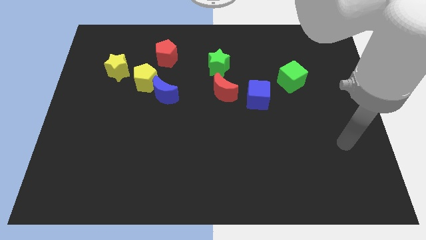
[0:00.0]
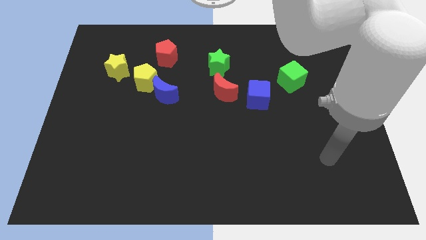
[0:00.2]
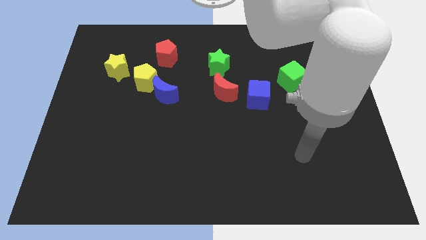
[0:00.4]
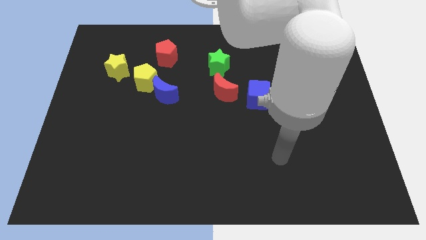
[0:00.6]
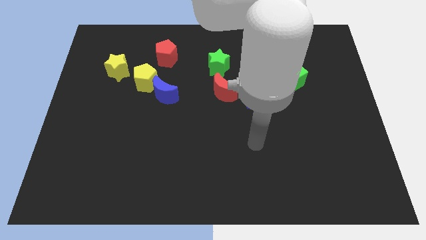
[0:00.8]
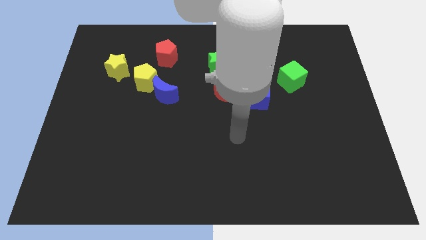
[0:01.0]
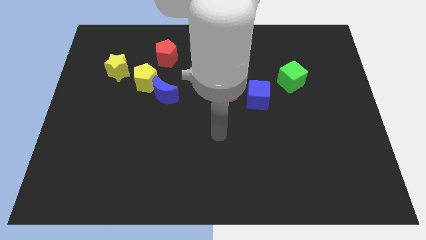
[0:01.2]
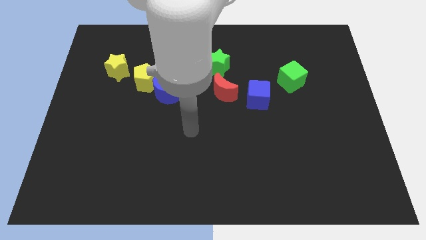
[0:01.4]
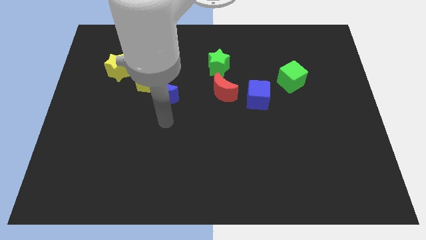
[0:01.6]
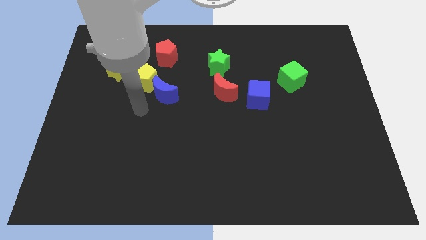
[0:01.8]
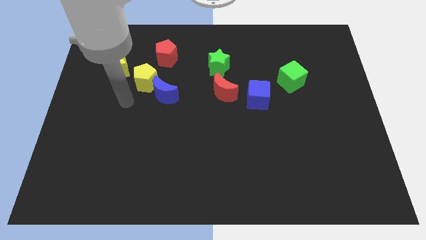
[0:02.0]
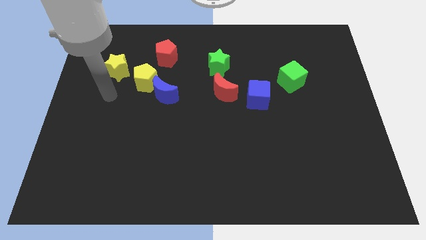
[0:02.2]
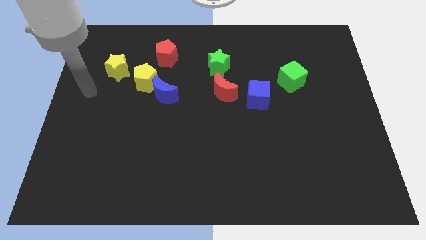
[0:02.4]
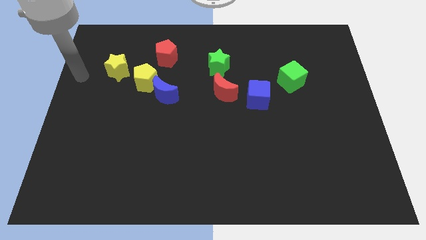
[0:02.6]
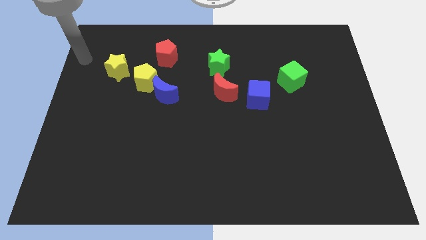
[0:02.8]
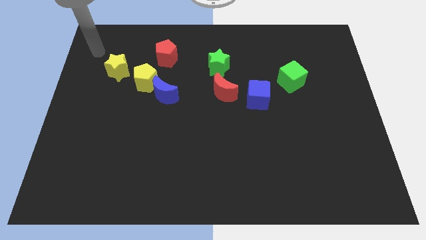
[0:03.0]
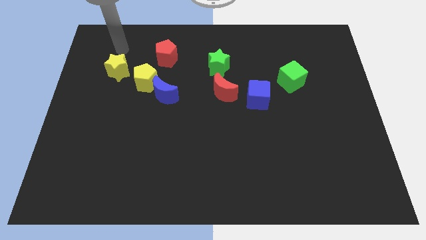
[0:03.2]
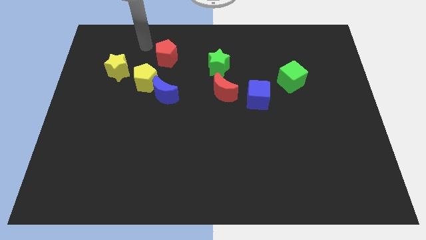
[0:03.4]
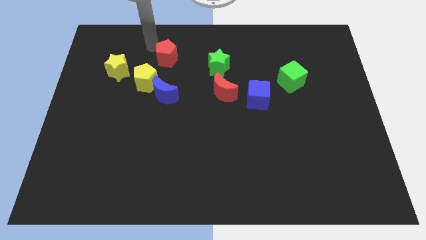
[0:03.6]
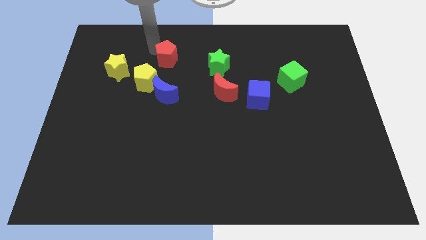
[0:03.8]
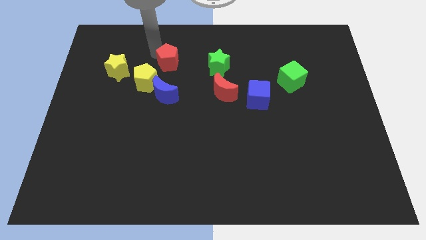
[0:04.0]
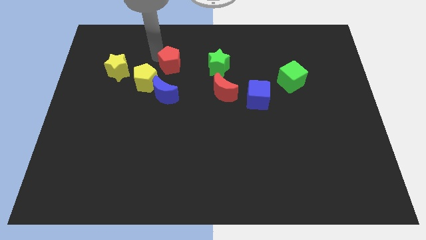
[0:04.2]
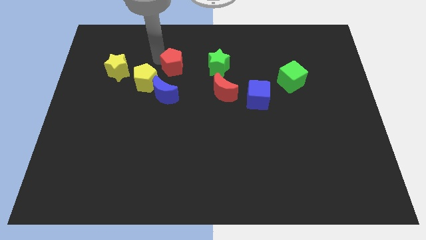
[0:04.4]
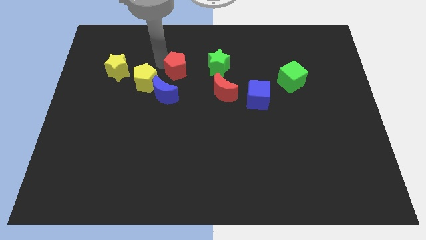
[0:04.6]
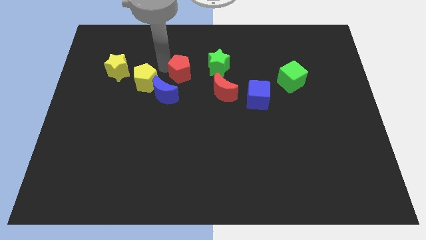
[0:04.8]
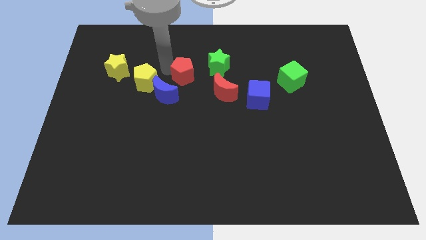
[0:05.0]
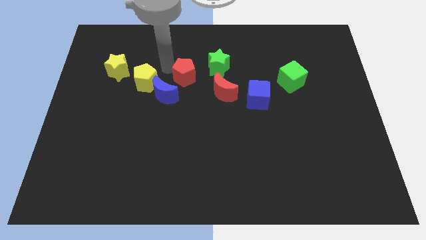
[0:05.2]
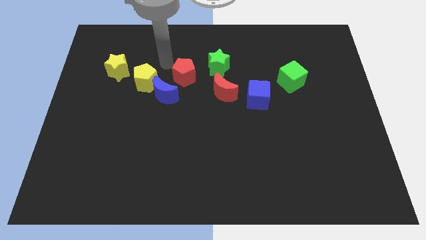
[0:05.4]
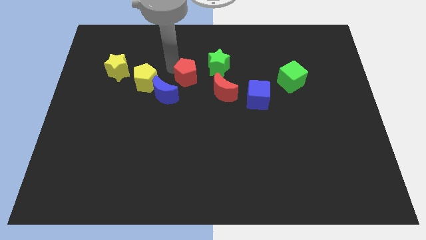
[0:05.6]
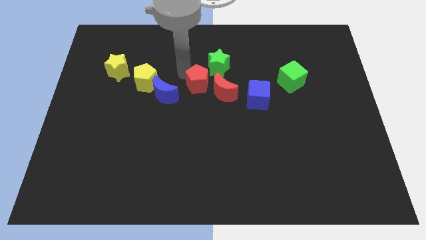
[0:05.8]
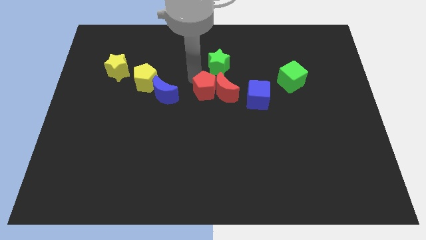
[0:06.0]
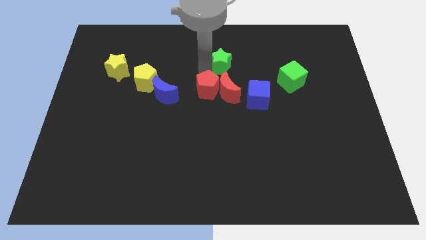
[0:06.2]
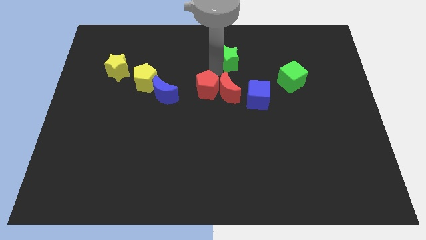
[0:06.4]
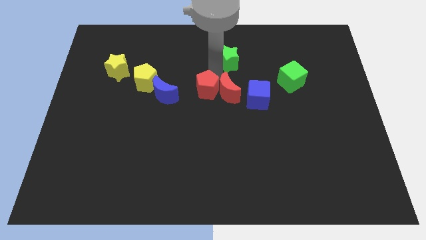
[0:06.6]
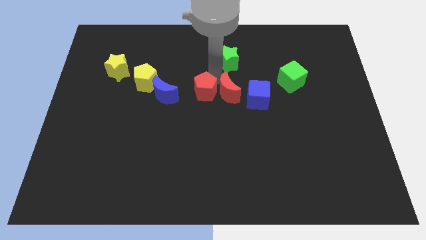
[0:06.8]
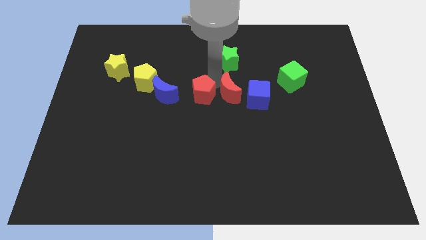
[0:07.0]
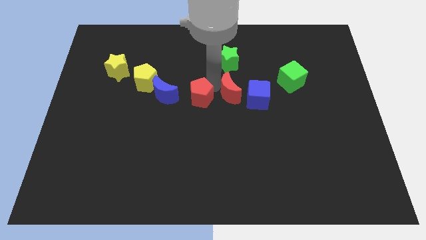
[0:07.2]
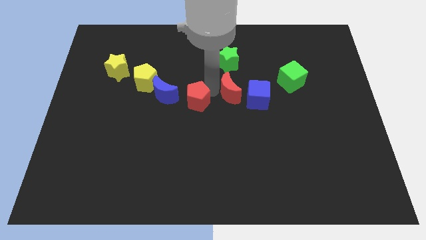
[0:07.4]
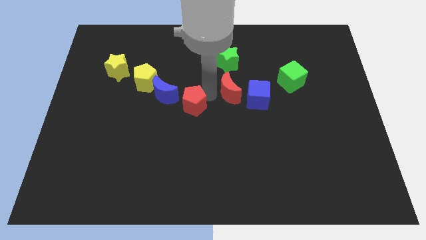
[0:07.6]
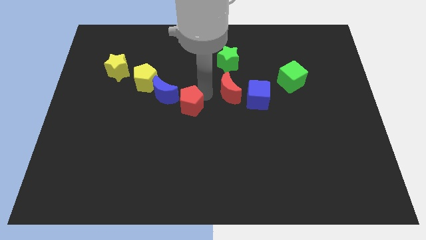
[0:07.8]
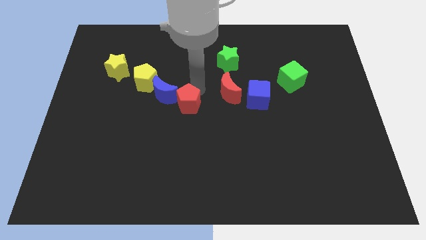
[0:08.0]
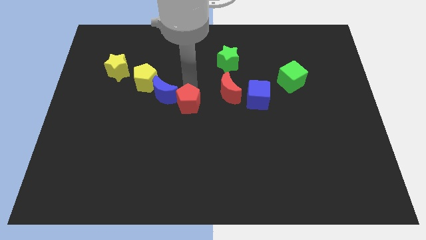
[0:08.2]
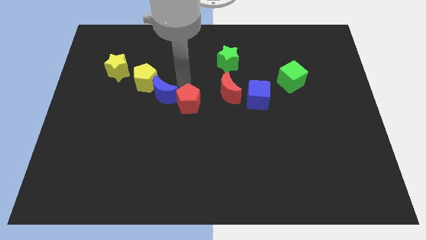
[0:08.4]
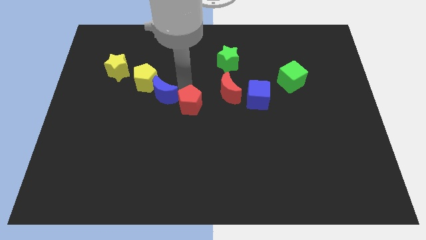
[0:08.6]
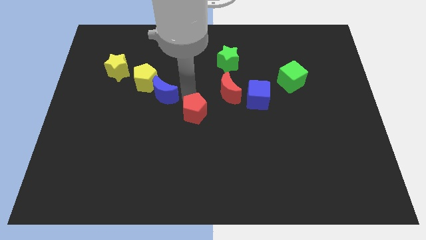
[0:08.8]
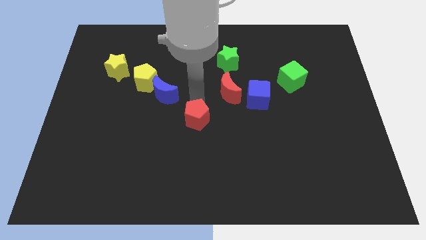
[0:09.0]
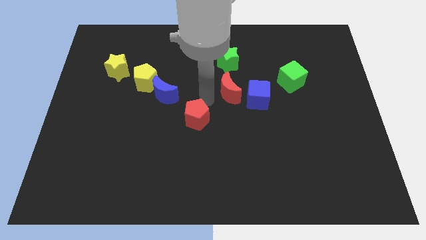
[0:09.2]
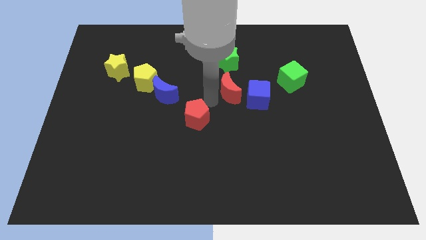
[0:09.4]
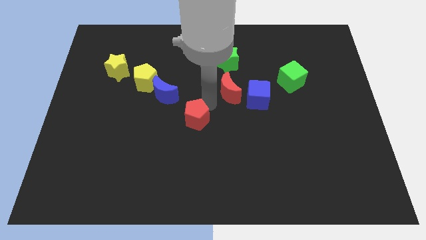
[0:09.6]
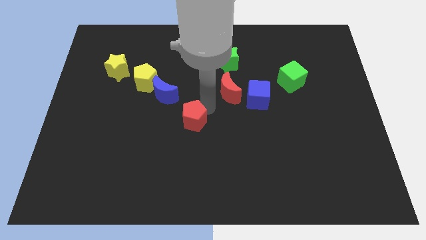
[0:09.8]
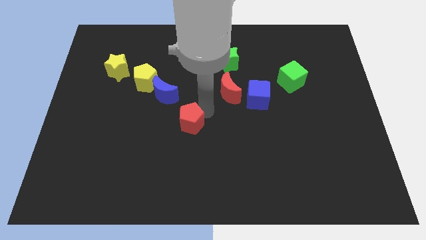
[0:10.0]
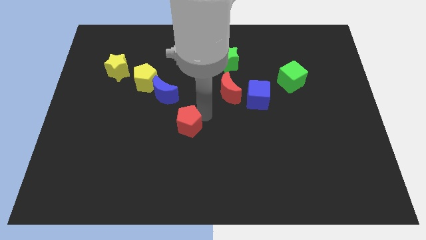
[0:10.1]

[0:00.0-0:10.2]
push the red pentagon downwards

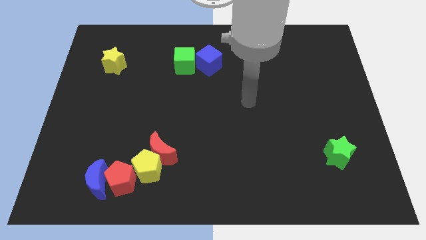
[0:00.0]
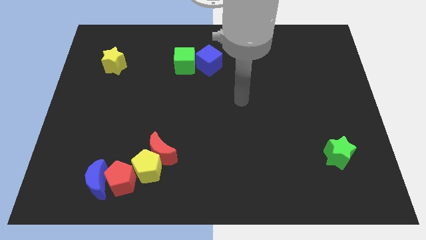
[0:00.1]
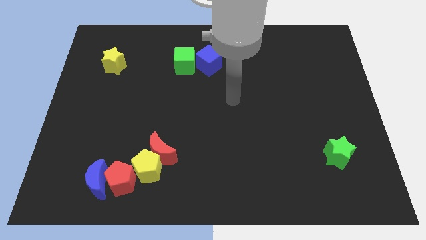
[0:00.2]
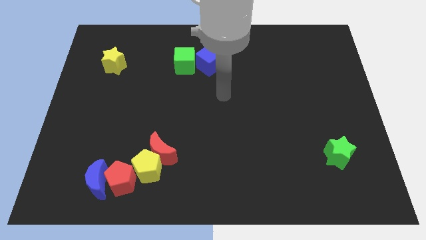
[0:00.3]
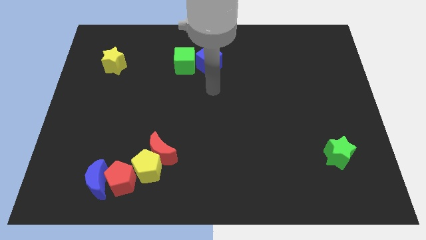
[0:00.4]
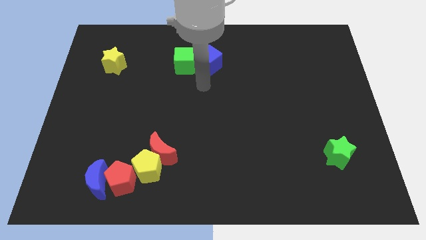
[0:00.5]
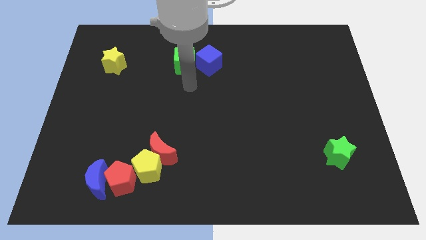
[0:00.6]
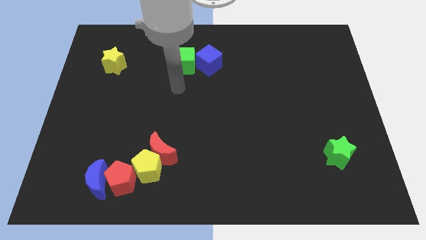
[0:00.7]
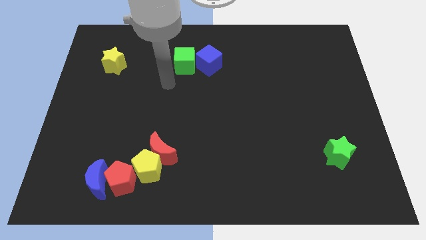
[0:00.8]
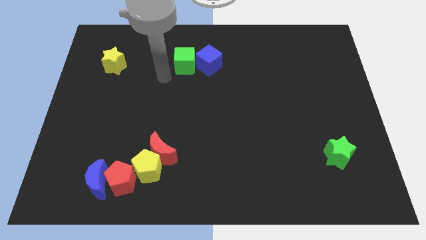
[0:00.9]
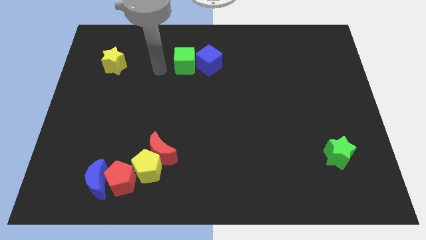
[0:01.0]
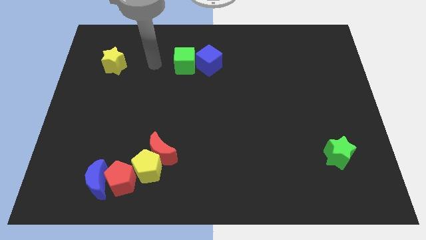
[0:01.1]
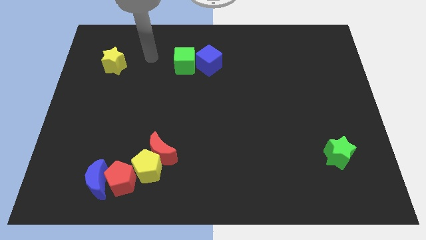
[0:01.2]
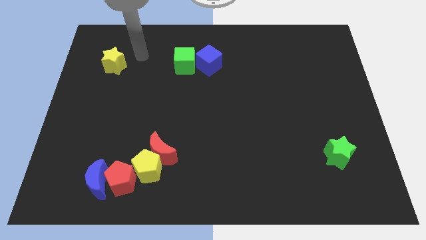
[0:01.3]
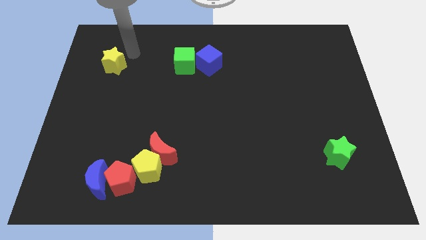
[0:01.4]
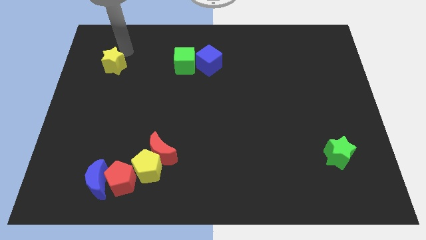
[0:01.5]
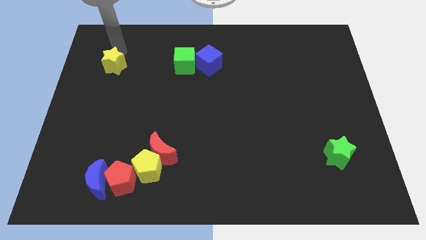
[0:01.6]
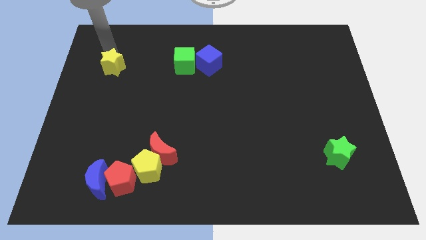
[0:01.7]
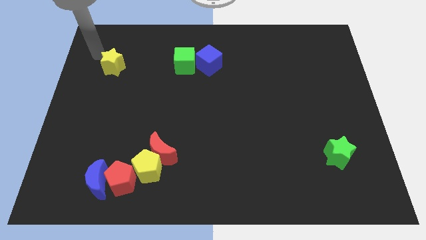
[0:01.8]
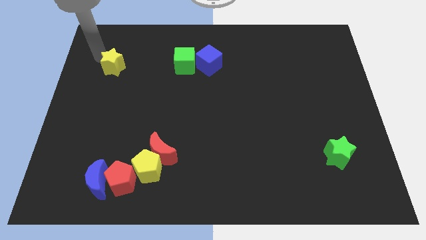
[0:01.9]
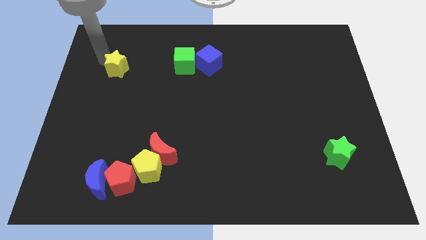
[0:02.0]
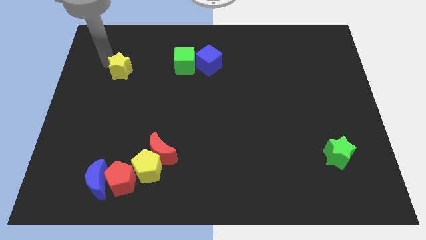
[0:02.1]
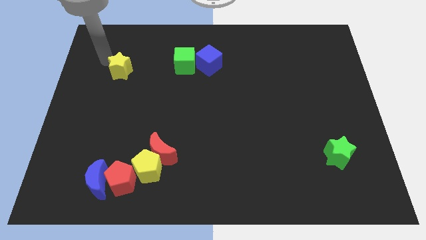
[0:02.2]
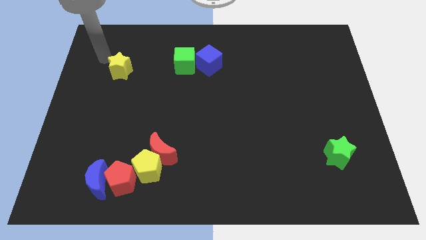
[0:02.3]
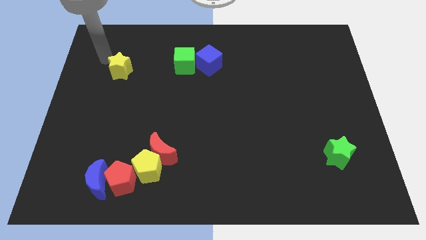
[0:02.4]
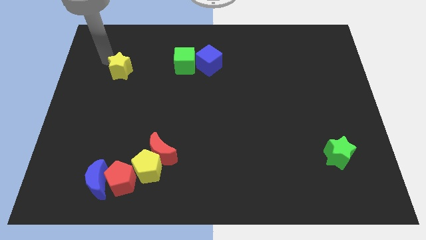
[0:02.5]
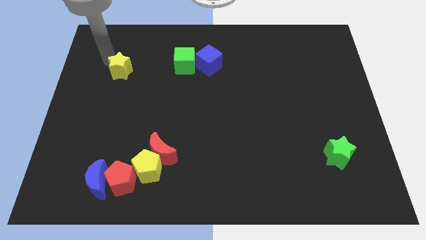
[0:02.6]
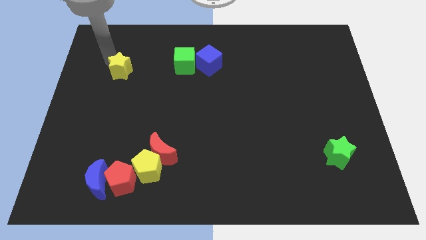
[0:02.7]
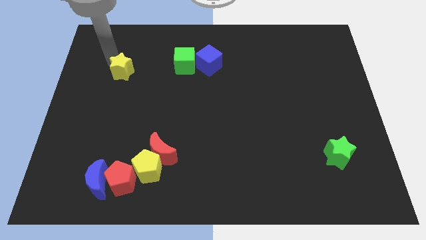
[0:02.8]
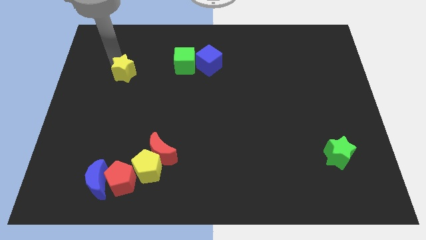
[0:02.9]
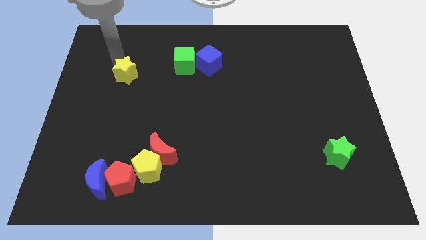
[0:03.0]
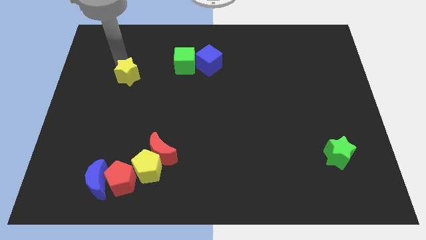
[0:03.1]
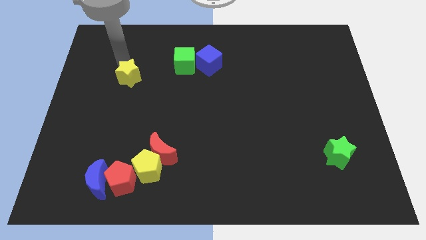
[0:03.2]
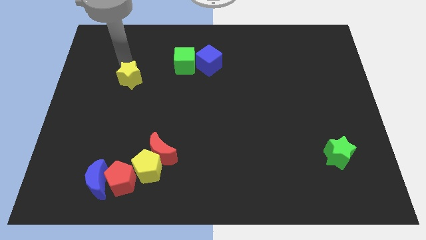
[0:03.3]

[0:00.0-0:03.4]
move the yellow star down and to the right diagonally a little
